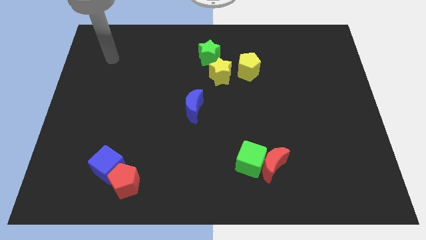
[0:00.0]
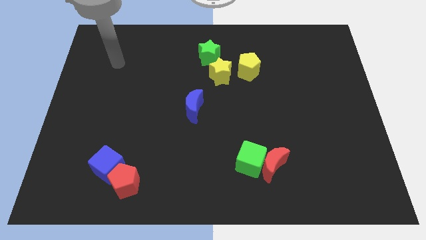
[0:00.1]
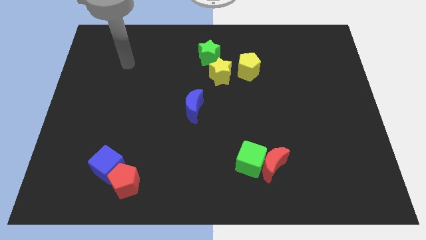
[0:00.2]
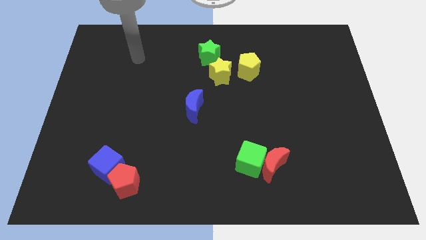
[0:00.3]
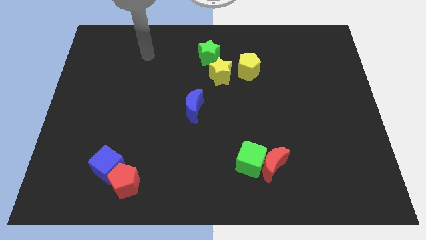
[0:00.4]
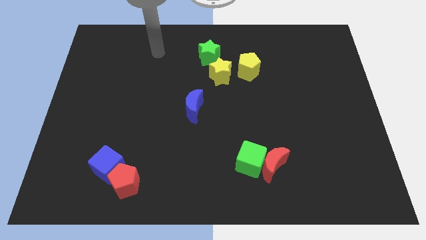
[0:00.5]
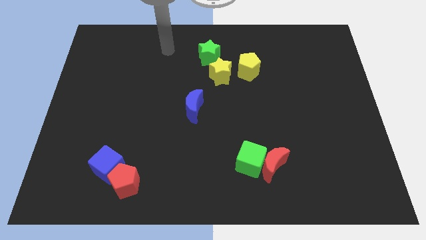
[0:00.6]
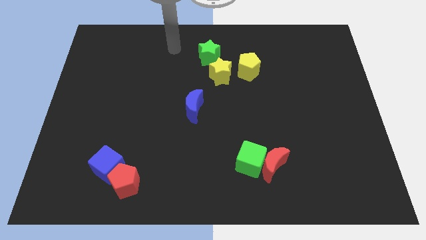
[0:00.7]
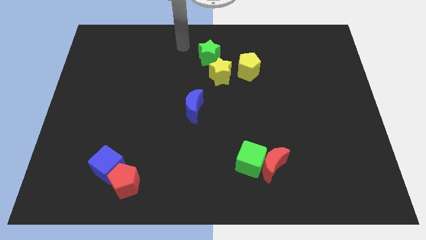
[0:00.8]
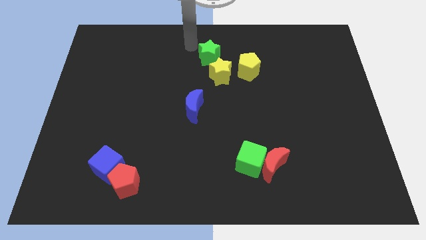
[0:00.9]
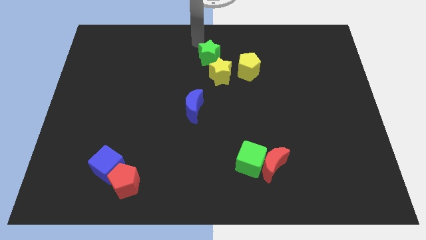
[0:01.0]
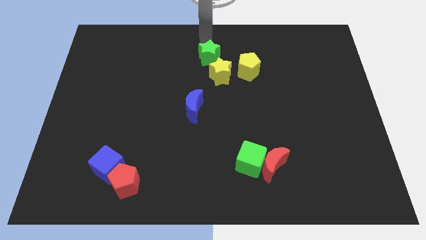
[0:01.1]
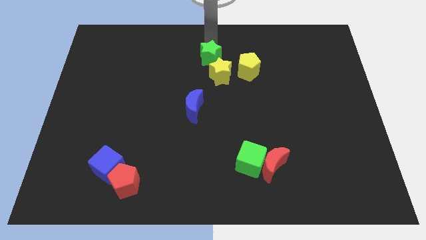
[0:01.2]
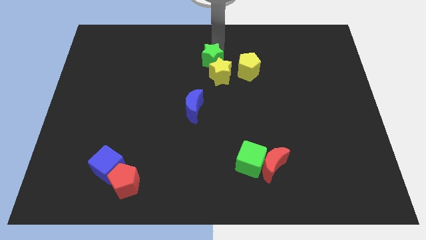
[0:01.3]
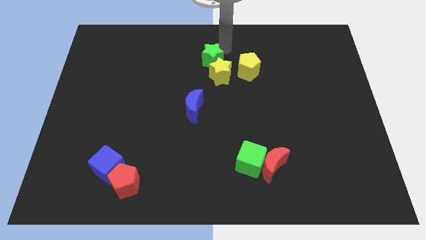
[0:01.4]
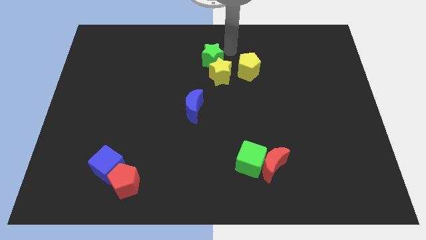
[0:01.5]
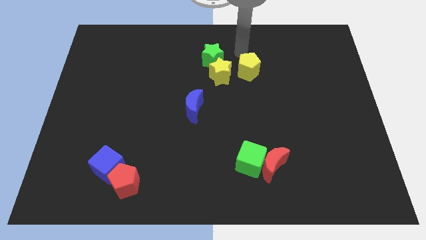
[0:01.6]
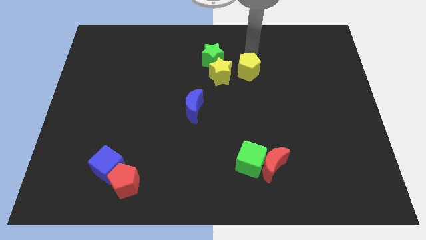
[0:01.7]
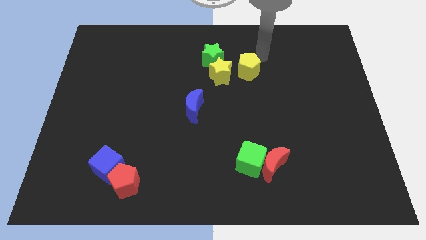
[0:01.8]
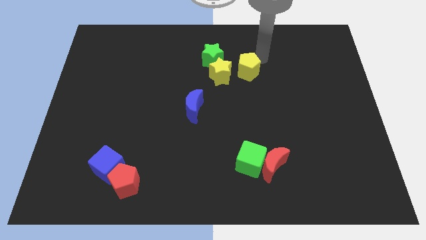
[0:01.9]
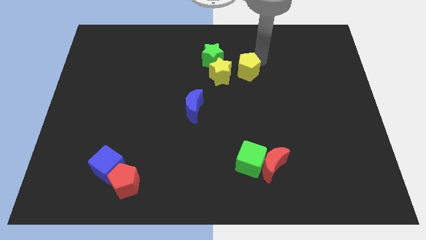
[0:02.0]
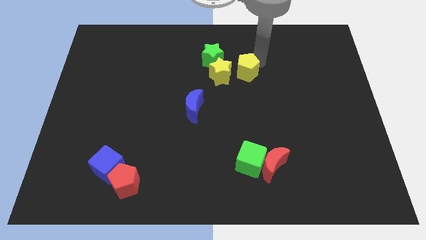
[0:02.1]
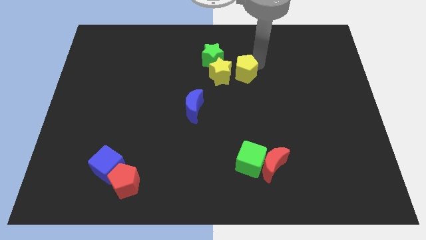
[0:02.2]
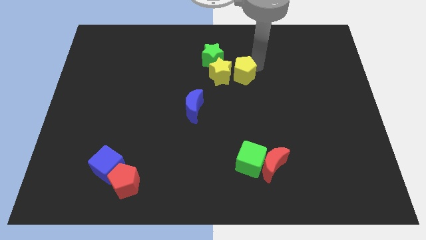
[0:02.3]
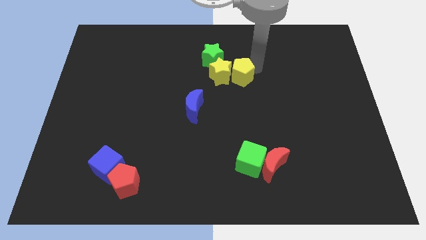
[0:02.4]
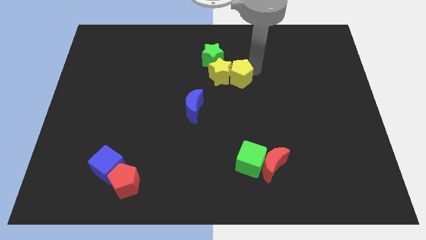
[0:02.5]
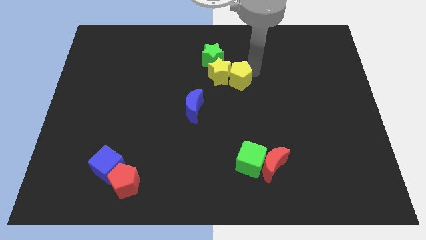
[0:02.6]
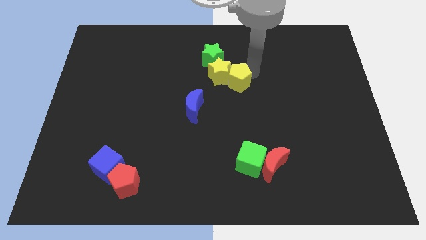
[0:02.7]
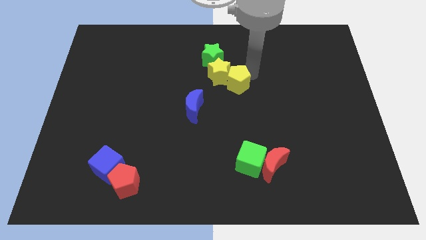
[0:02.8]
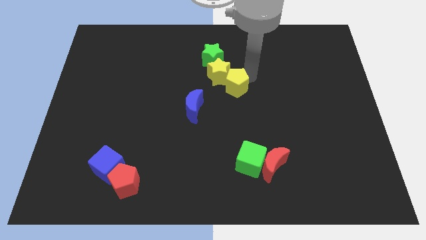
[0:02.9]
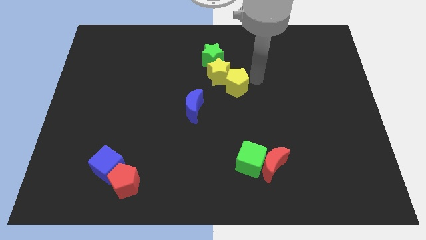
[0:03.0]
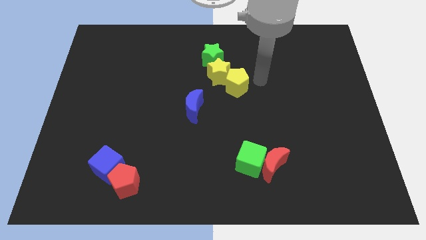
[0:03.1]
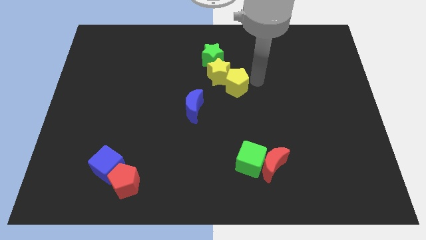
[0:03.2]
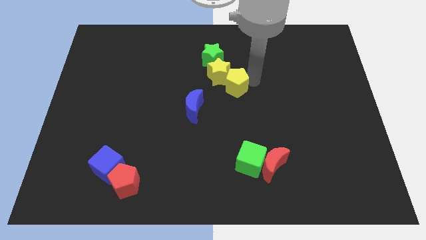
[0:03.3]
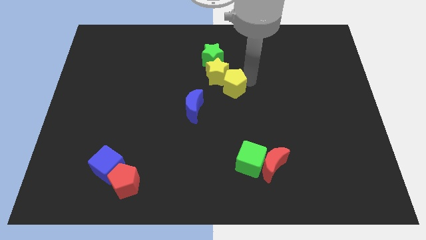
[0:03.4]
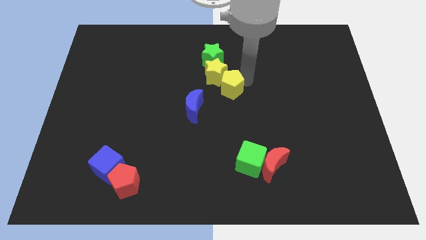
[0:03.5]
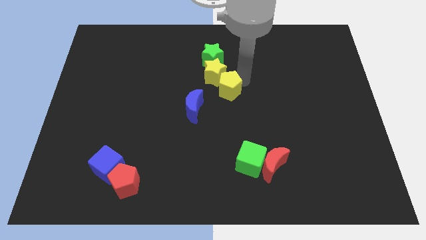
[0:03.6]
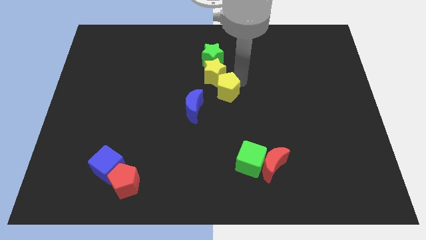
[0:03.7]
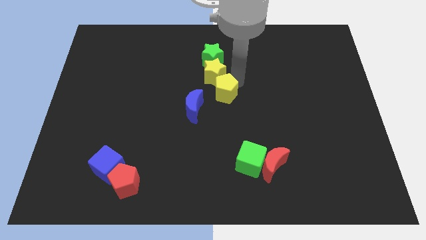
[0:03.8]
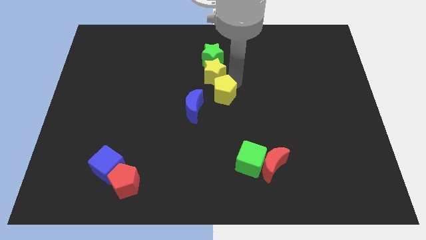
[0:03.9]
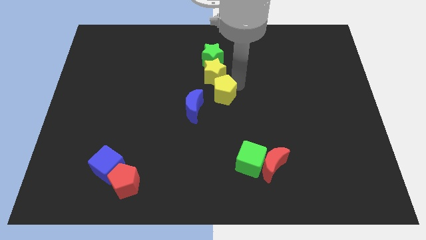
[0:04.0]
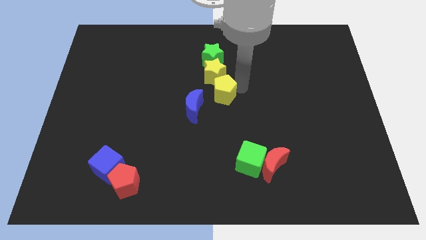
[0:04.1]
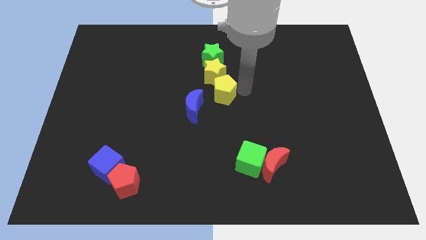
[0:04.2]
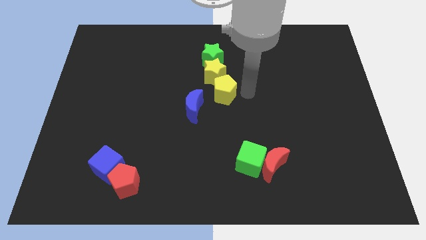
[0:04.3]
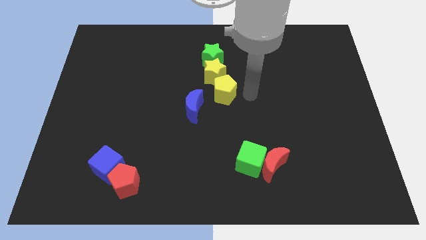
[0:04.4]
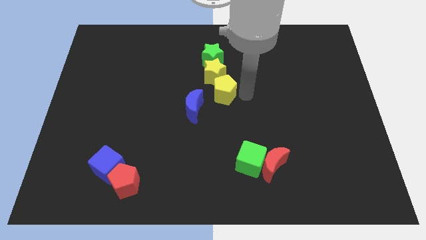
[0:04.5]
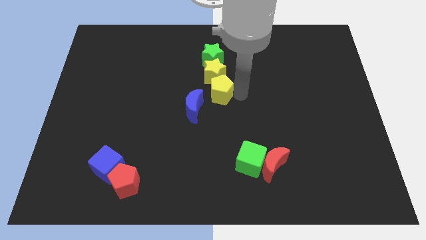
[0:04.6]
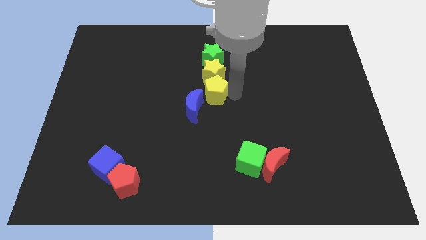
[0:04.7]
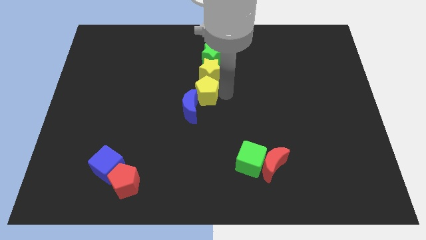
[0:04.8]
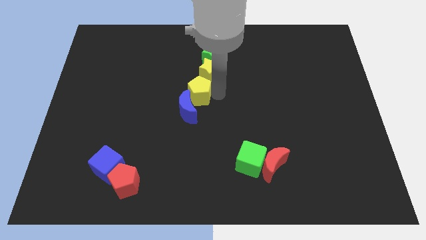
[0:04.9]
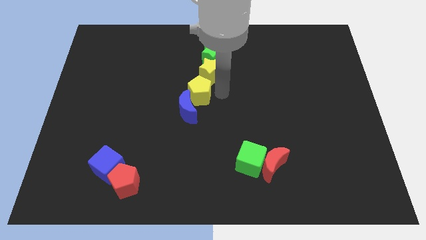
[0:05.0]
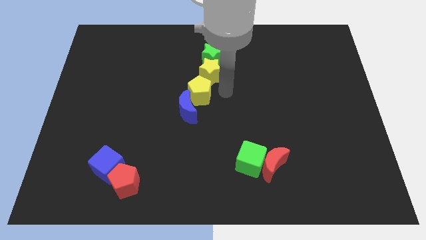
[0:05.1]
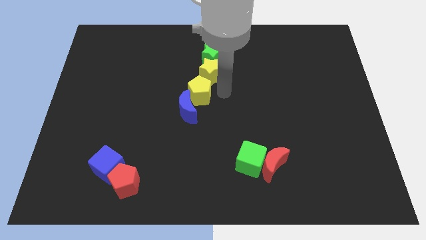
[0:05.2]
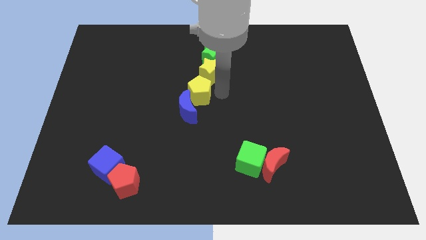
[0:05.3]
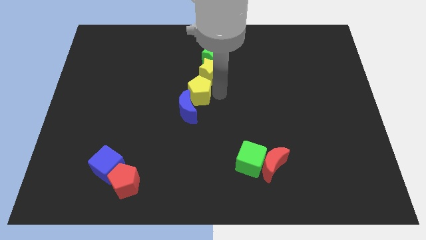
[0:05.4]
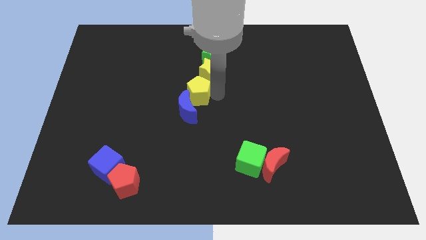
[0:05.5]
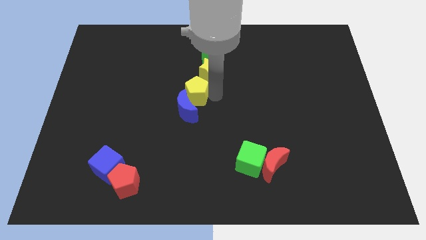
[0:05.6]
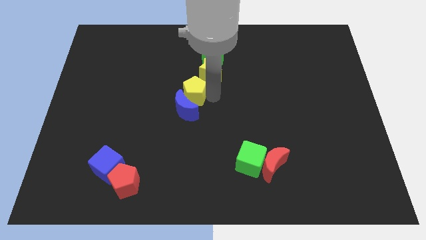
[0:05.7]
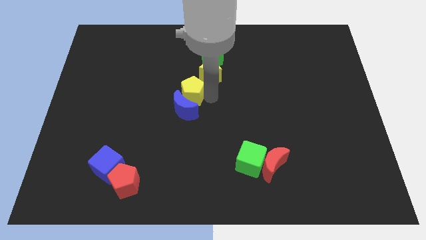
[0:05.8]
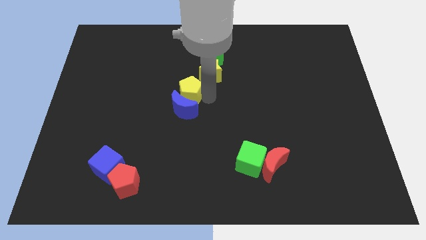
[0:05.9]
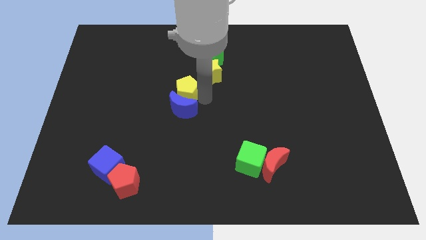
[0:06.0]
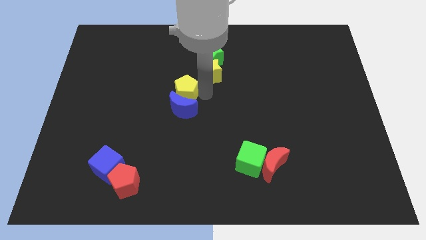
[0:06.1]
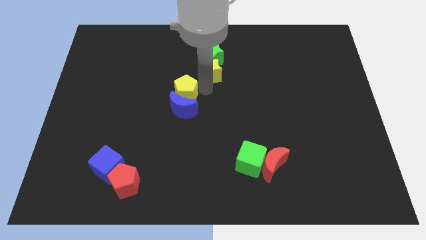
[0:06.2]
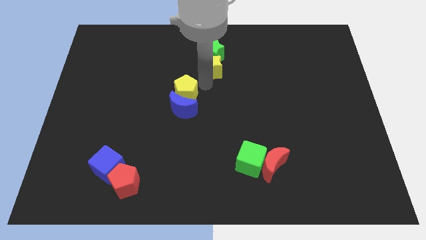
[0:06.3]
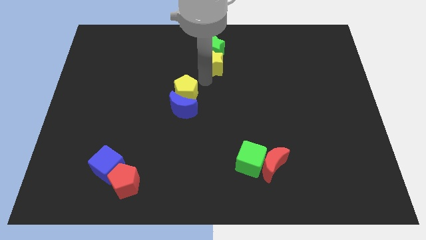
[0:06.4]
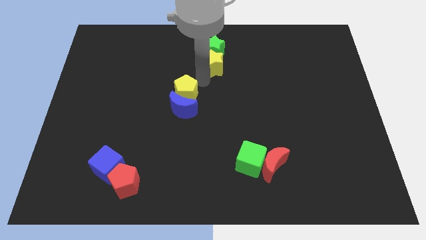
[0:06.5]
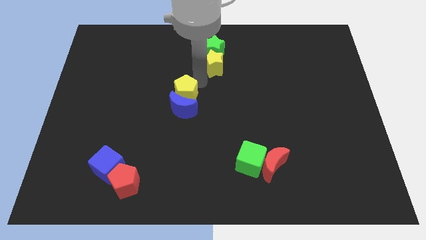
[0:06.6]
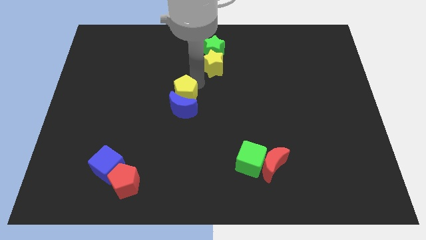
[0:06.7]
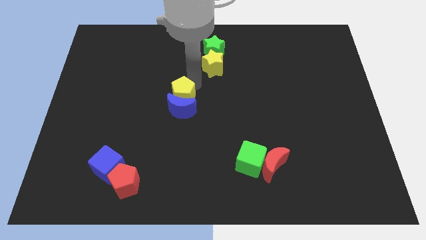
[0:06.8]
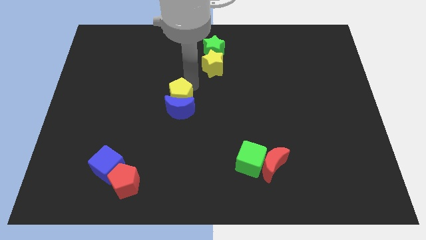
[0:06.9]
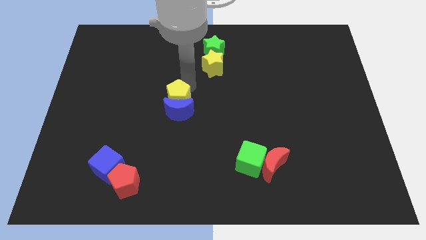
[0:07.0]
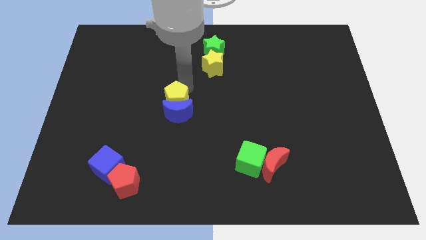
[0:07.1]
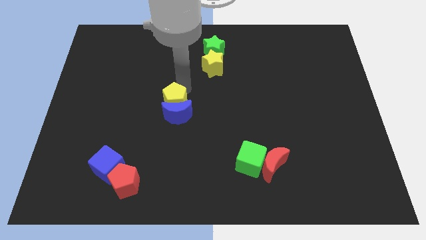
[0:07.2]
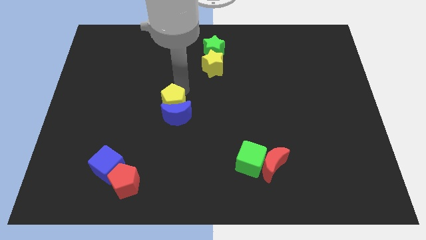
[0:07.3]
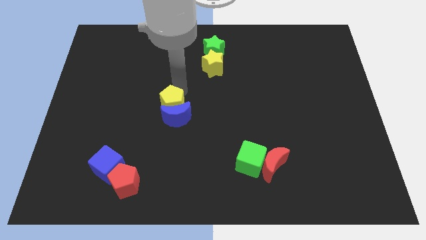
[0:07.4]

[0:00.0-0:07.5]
move the yellow pentagon downwards and left diagonally

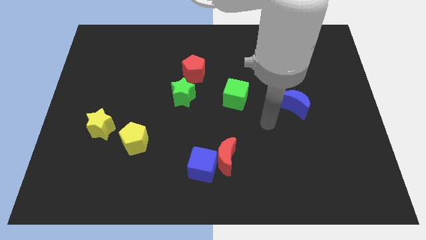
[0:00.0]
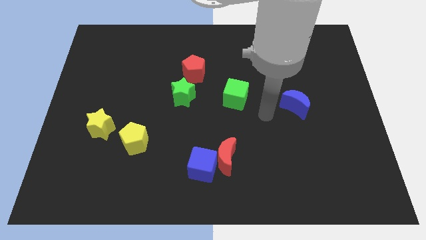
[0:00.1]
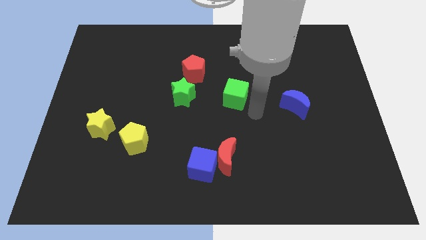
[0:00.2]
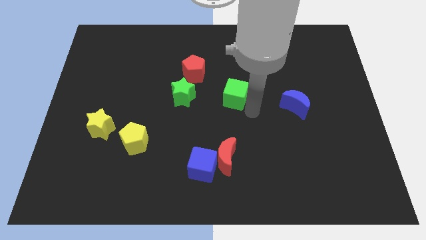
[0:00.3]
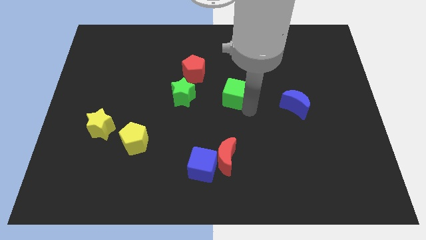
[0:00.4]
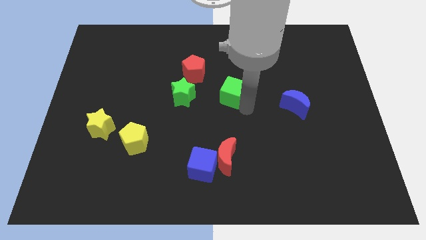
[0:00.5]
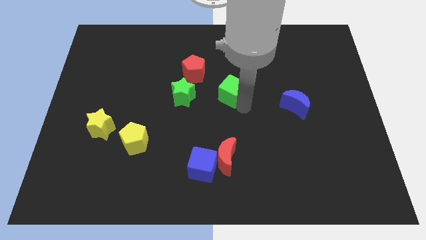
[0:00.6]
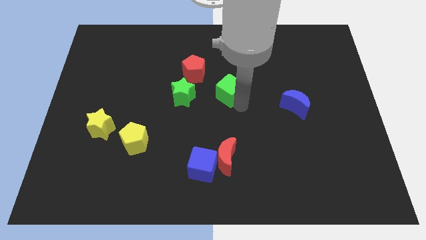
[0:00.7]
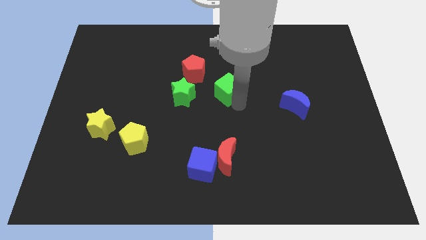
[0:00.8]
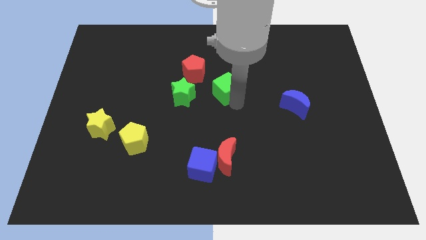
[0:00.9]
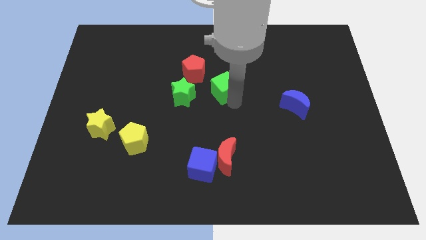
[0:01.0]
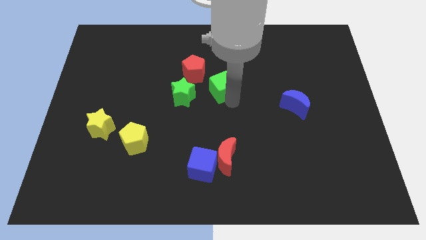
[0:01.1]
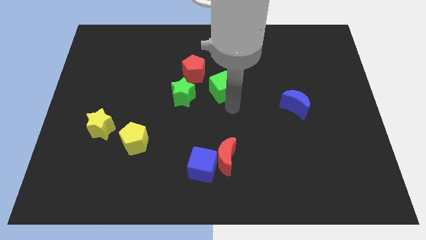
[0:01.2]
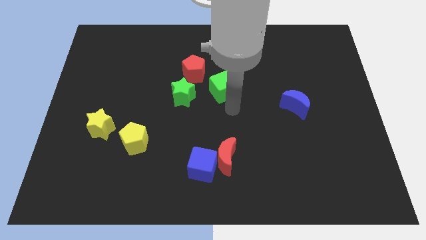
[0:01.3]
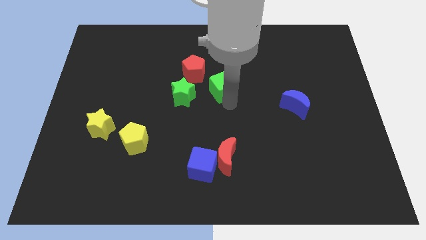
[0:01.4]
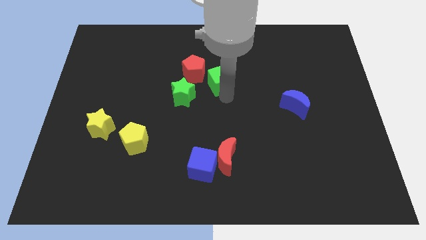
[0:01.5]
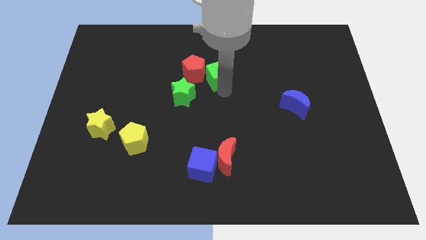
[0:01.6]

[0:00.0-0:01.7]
move the green cube diagonally upwards and to the left somewhat
